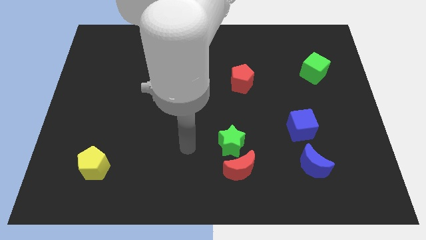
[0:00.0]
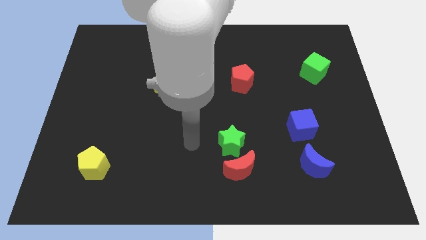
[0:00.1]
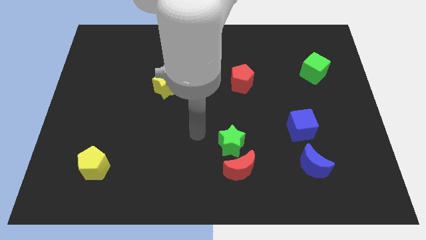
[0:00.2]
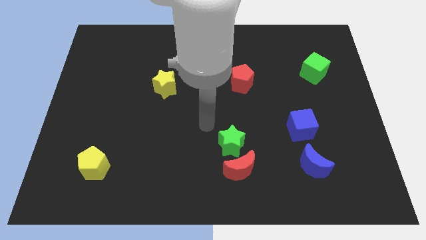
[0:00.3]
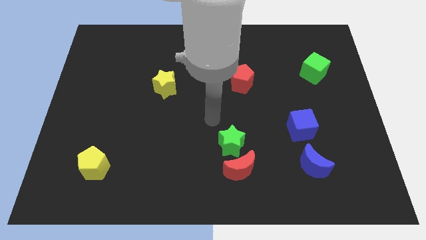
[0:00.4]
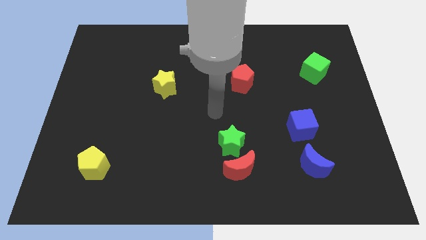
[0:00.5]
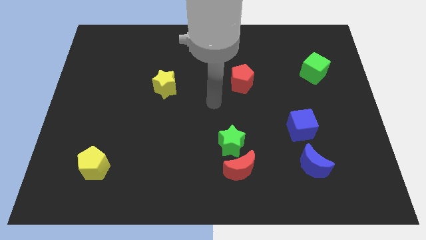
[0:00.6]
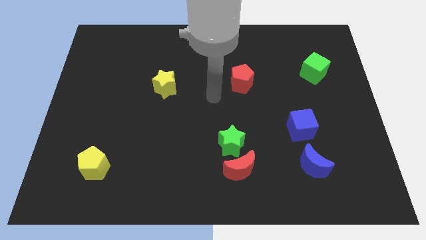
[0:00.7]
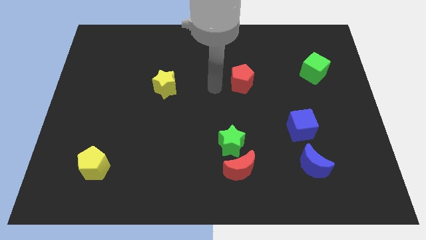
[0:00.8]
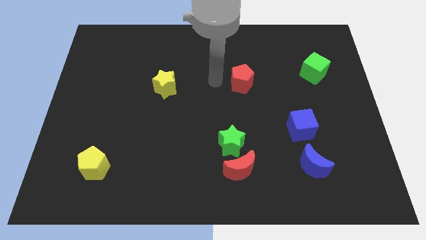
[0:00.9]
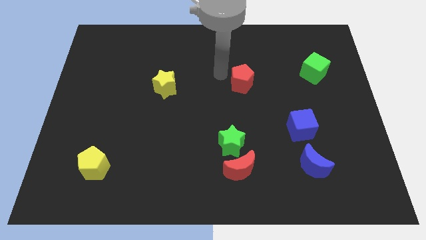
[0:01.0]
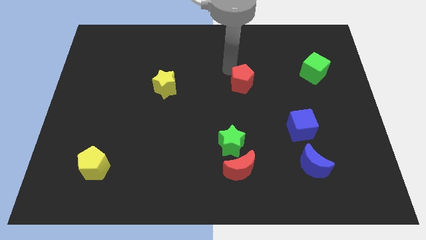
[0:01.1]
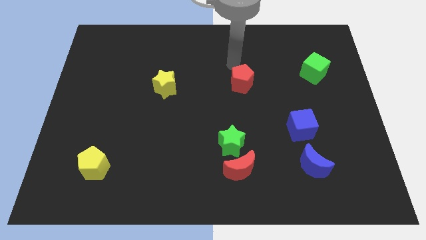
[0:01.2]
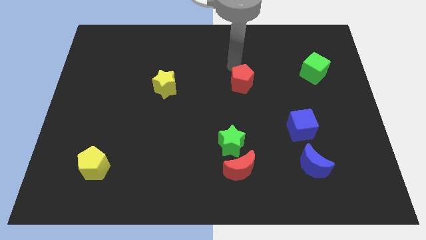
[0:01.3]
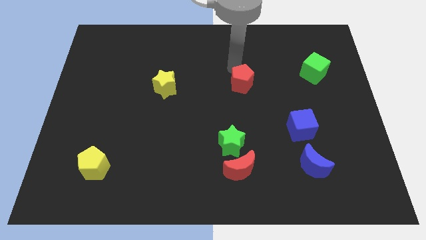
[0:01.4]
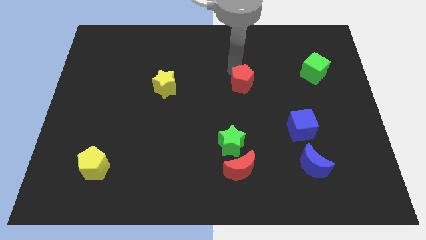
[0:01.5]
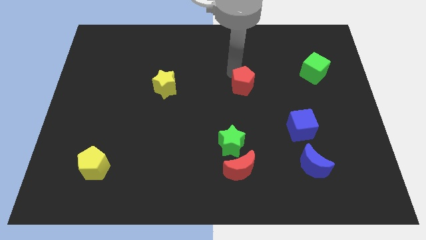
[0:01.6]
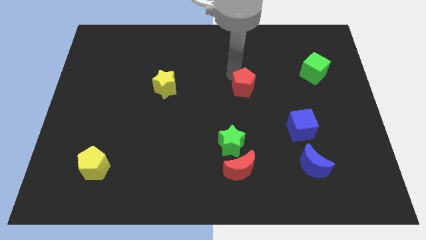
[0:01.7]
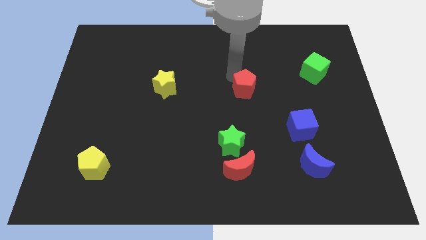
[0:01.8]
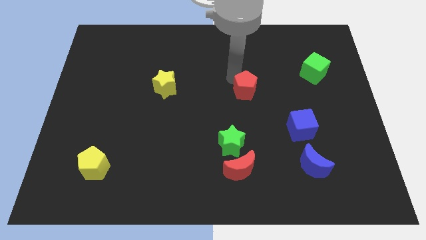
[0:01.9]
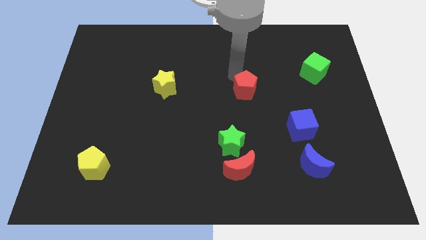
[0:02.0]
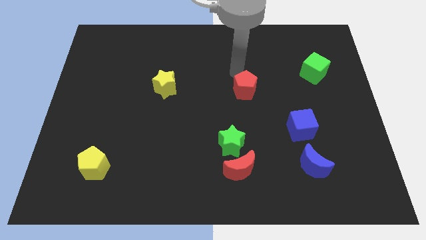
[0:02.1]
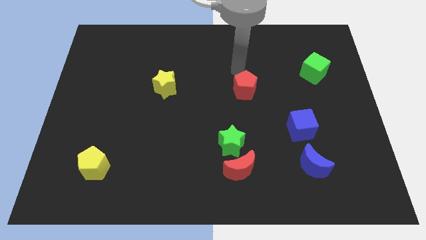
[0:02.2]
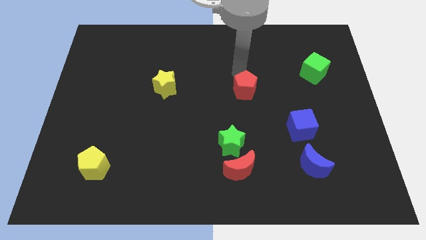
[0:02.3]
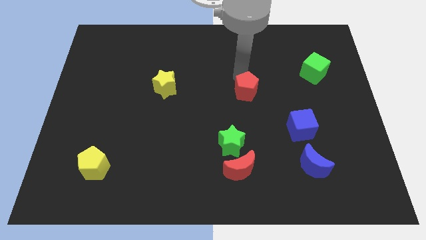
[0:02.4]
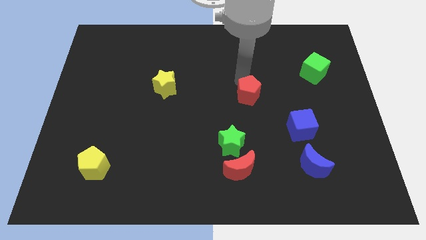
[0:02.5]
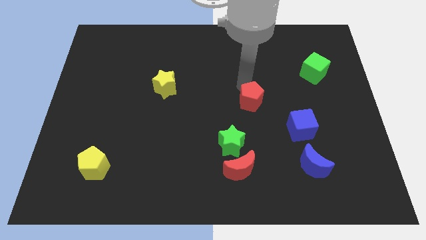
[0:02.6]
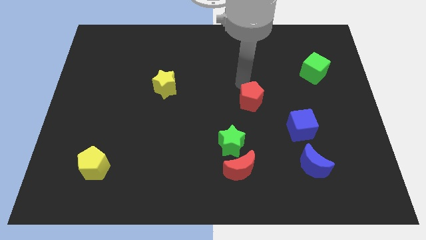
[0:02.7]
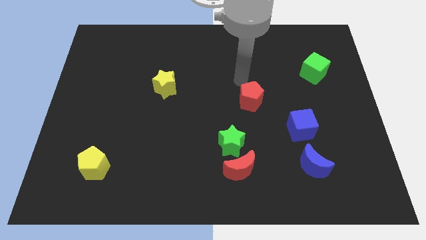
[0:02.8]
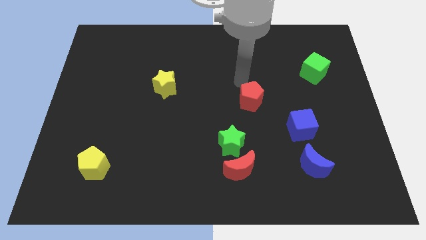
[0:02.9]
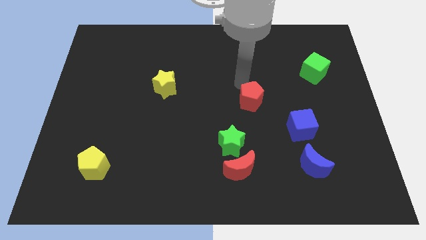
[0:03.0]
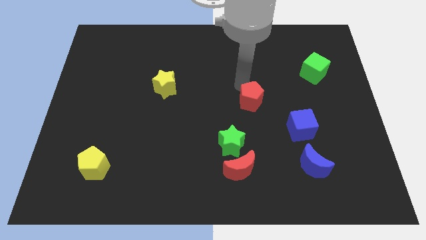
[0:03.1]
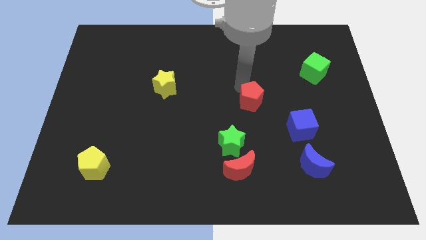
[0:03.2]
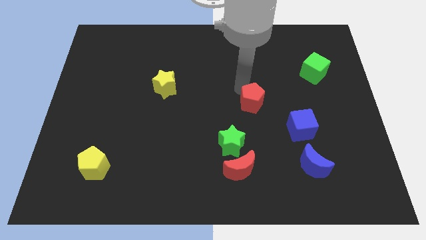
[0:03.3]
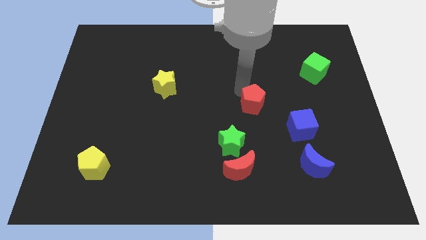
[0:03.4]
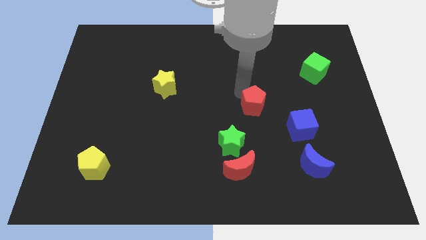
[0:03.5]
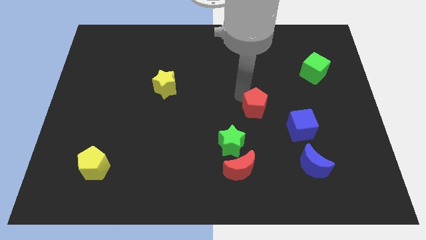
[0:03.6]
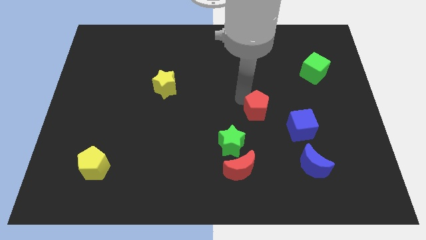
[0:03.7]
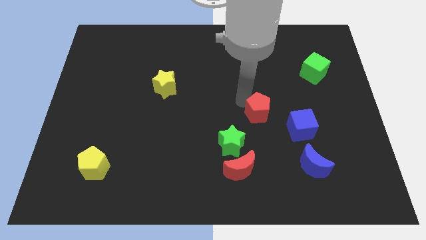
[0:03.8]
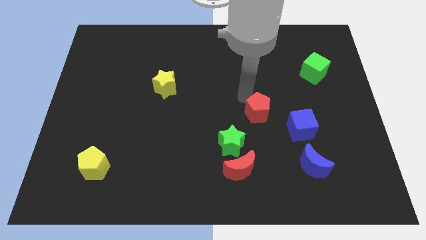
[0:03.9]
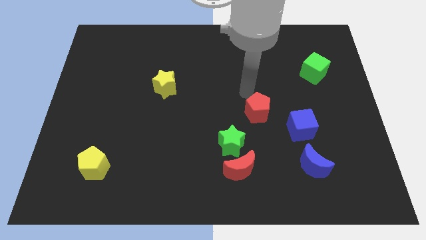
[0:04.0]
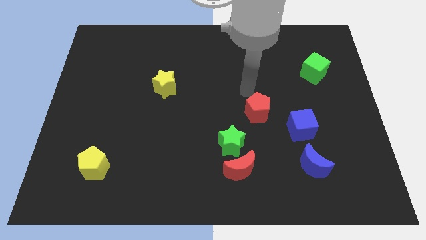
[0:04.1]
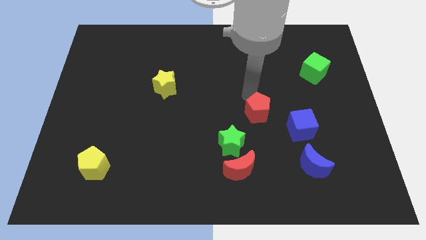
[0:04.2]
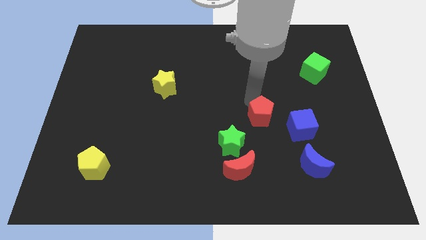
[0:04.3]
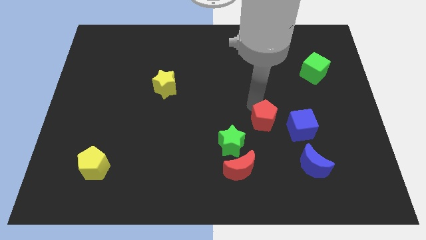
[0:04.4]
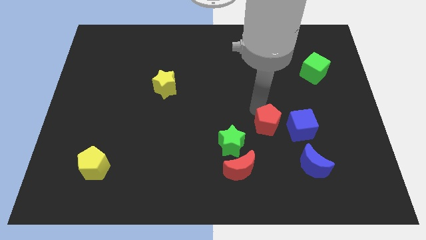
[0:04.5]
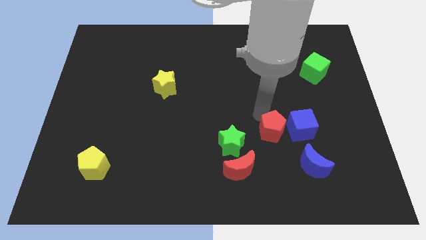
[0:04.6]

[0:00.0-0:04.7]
push the red pentagon just right of the green star

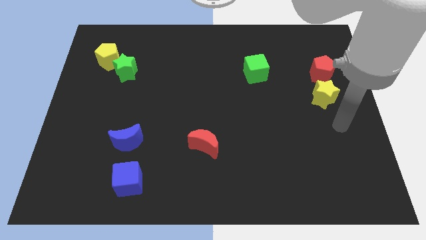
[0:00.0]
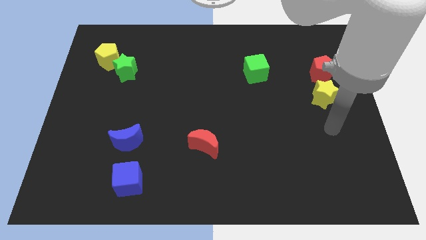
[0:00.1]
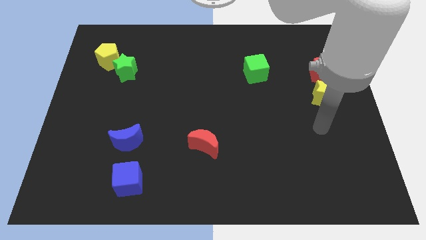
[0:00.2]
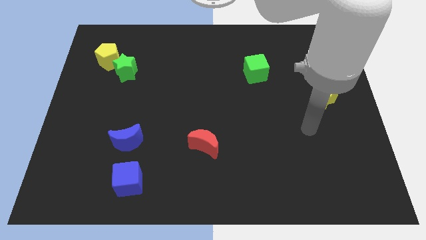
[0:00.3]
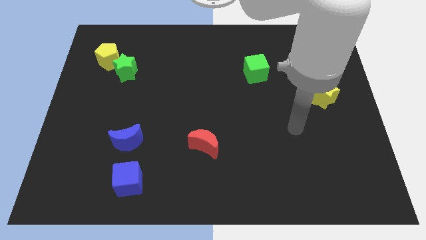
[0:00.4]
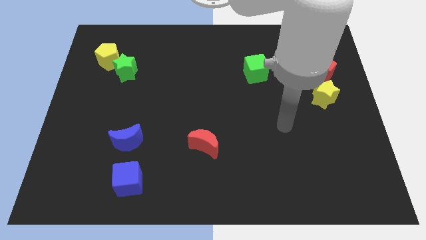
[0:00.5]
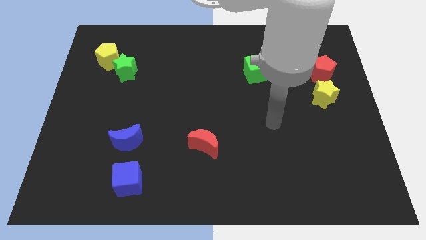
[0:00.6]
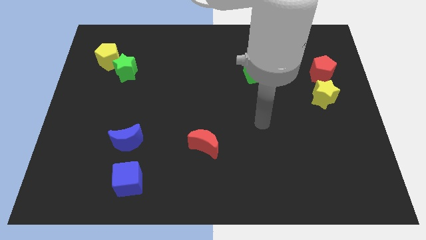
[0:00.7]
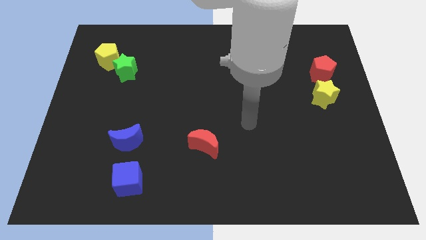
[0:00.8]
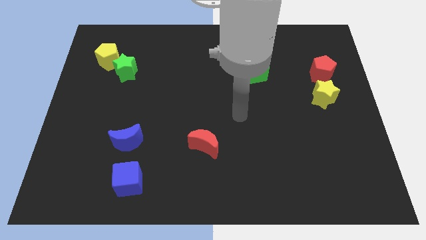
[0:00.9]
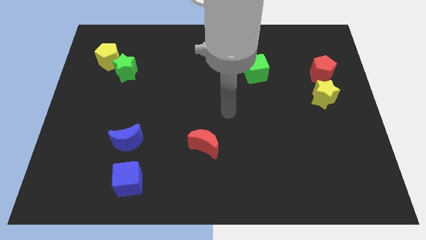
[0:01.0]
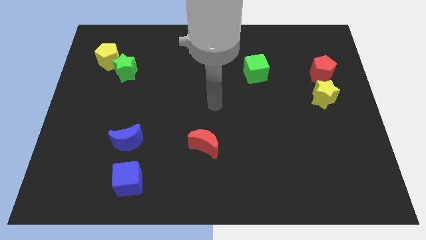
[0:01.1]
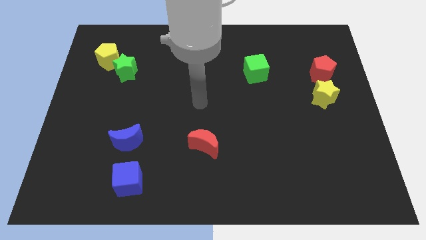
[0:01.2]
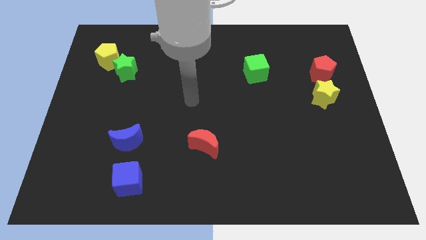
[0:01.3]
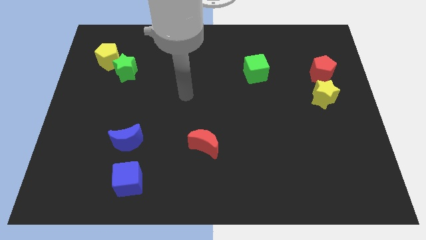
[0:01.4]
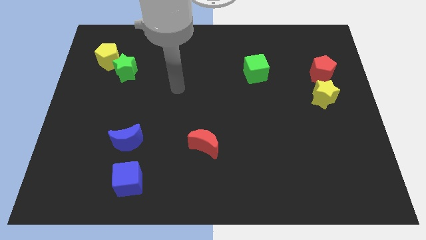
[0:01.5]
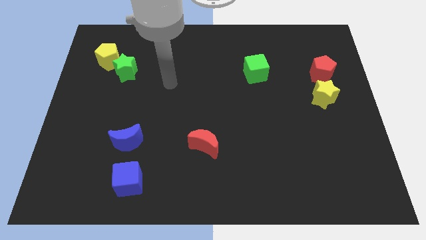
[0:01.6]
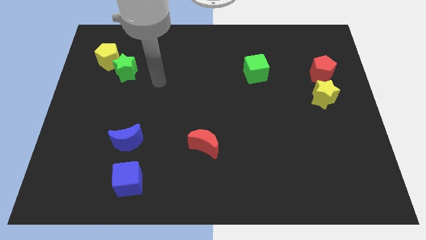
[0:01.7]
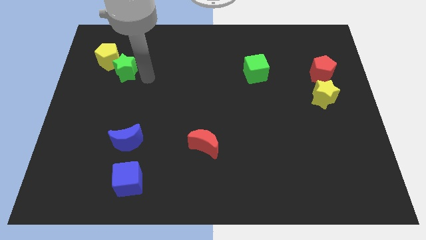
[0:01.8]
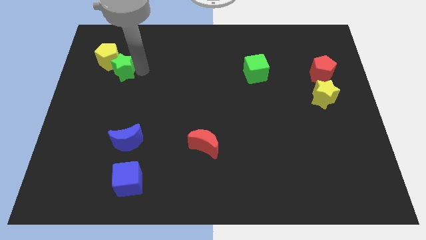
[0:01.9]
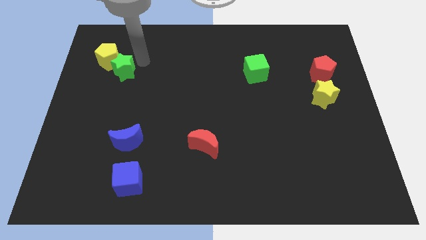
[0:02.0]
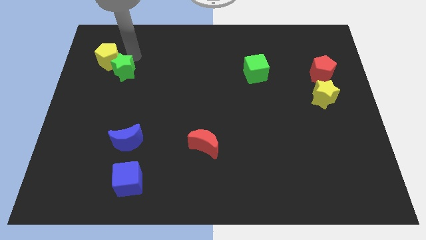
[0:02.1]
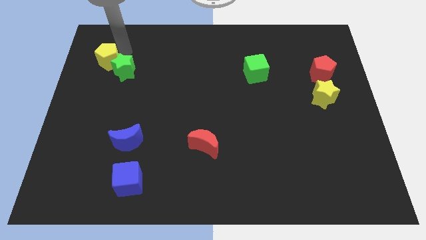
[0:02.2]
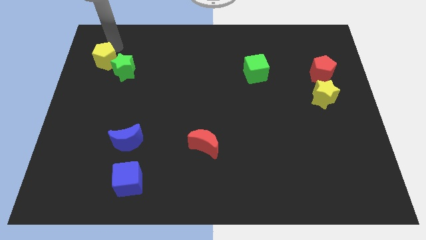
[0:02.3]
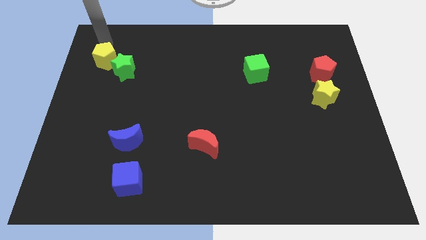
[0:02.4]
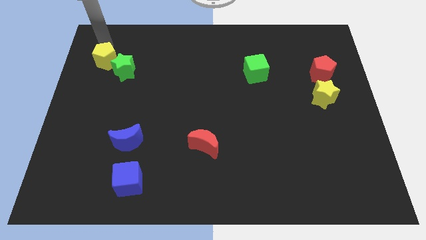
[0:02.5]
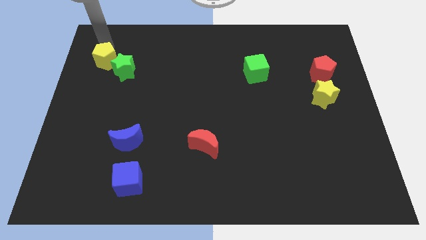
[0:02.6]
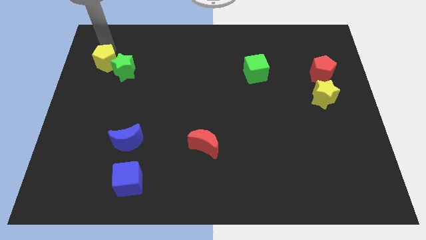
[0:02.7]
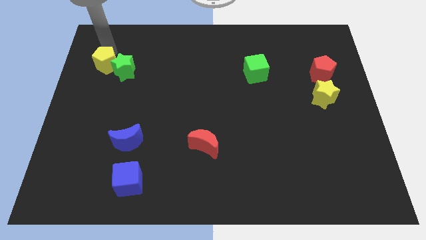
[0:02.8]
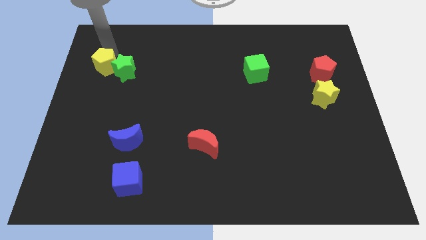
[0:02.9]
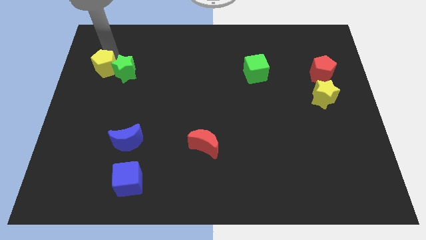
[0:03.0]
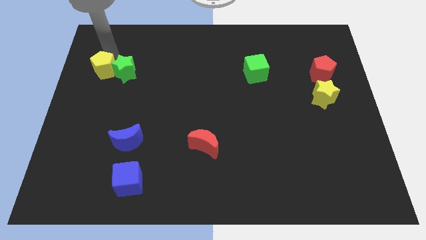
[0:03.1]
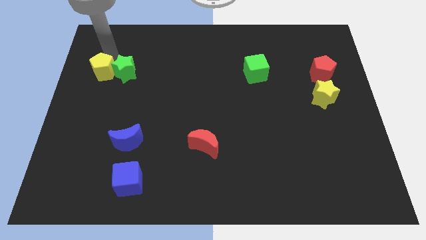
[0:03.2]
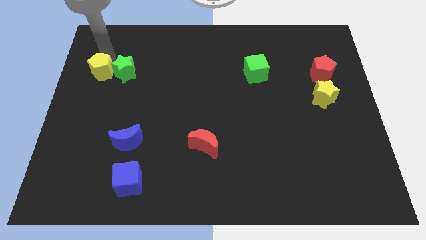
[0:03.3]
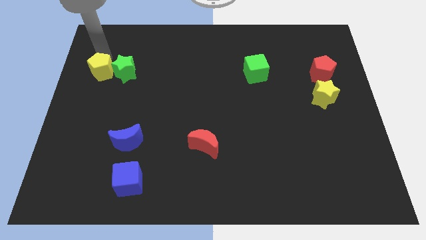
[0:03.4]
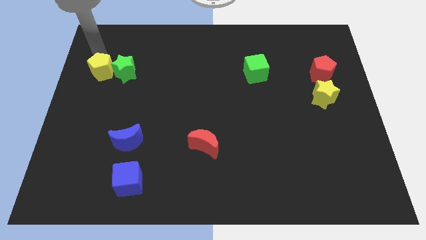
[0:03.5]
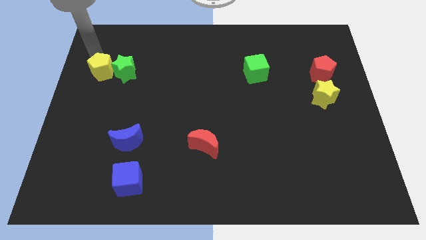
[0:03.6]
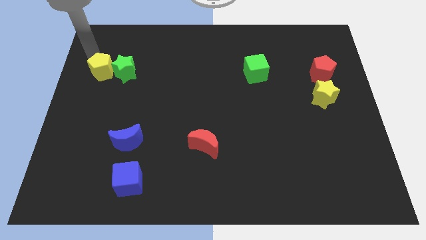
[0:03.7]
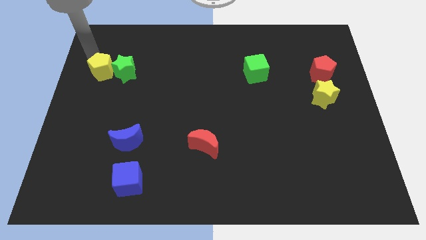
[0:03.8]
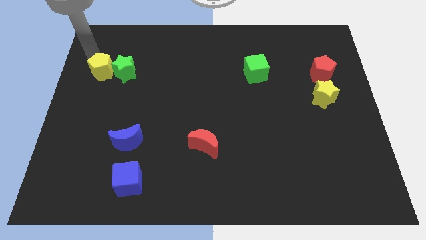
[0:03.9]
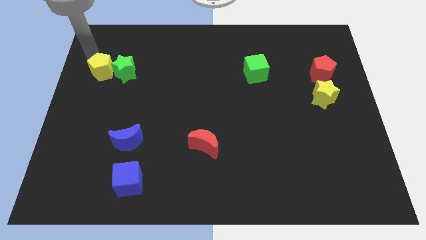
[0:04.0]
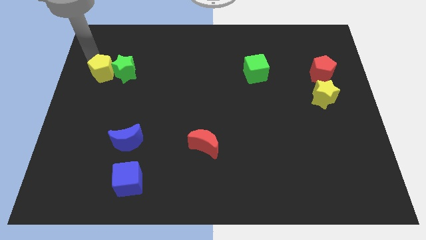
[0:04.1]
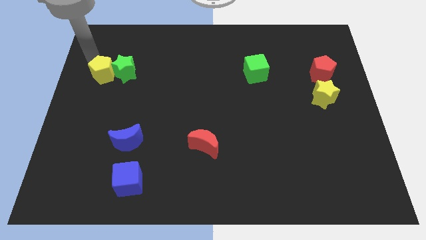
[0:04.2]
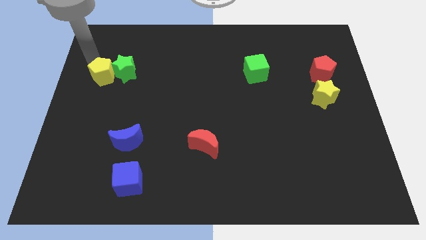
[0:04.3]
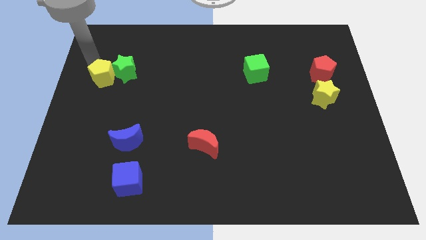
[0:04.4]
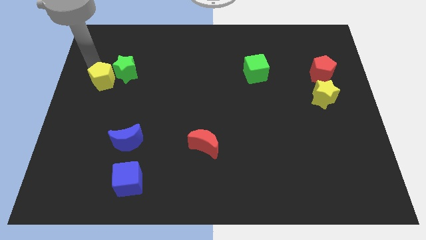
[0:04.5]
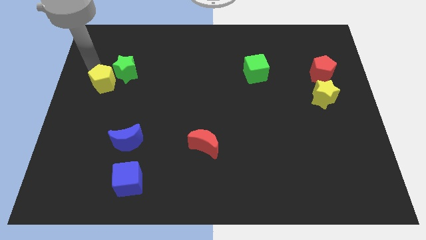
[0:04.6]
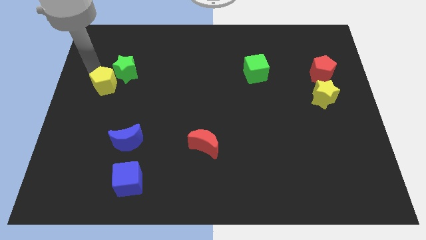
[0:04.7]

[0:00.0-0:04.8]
slide the yellow pentagon to the bottom of the green star
